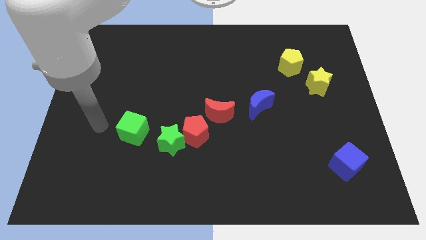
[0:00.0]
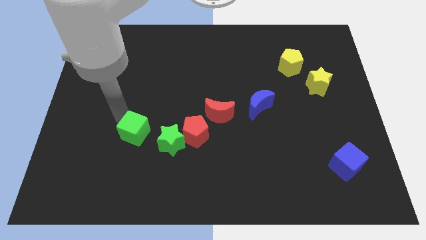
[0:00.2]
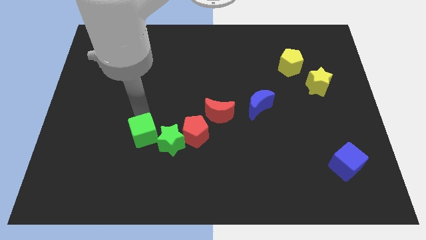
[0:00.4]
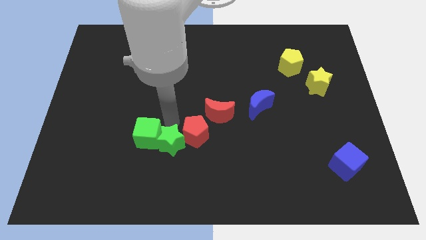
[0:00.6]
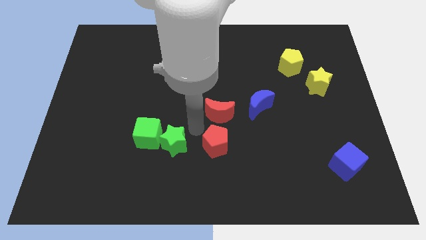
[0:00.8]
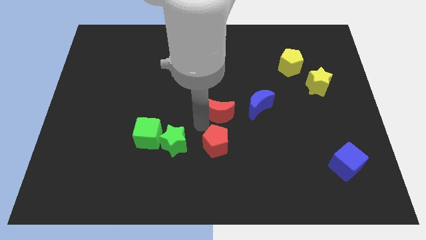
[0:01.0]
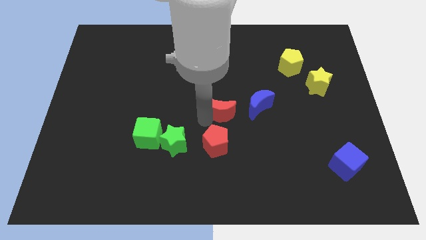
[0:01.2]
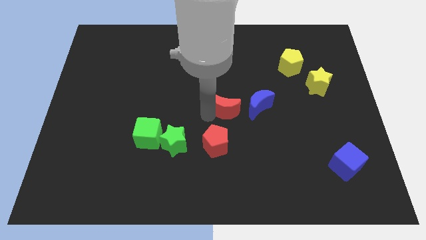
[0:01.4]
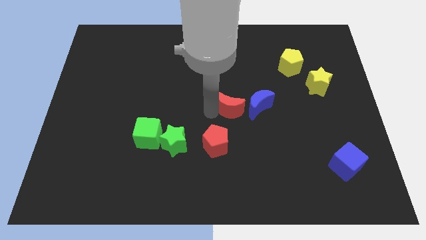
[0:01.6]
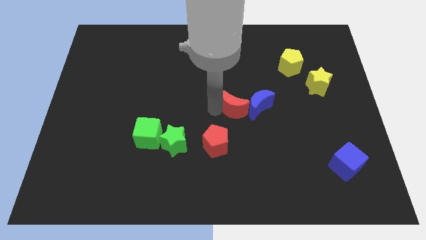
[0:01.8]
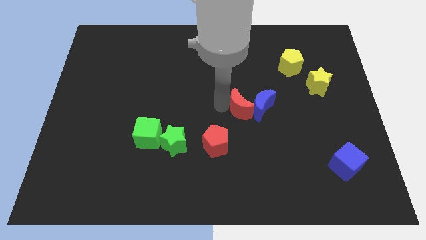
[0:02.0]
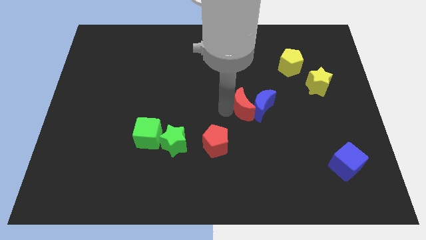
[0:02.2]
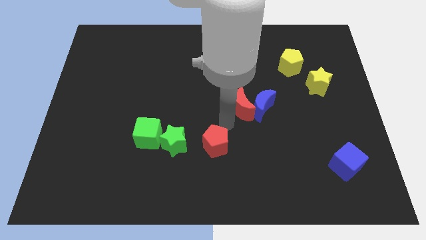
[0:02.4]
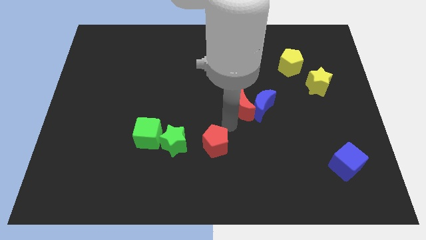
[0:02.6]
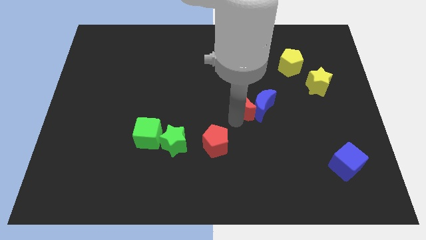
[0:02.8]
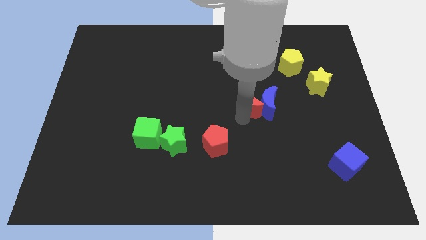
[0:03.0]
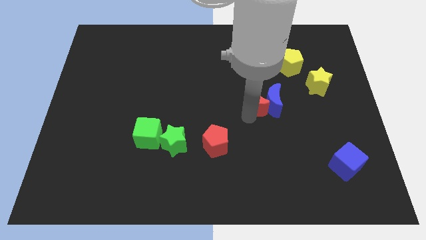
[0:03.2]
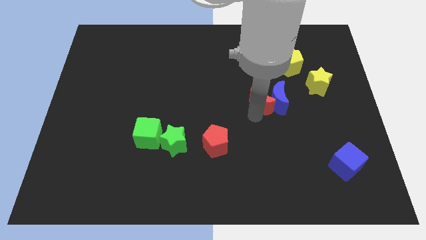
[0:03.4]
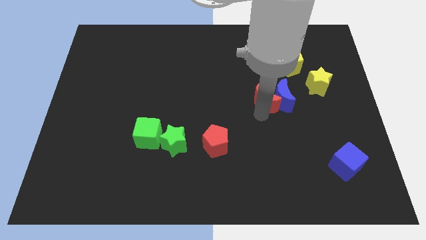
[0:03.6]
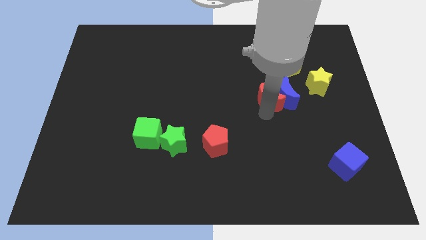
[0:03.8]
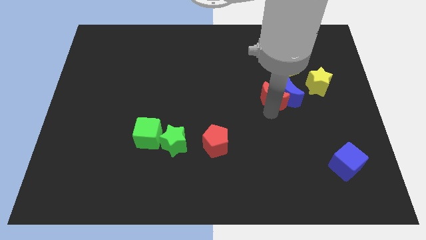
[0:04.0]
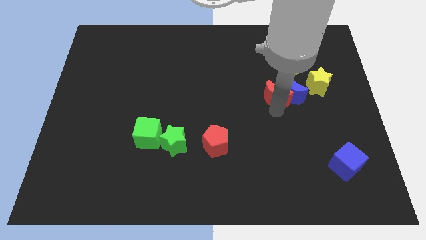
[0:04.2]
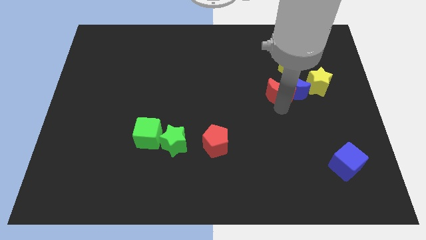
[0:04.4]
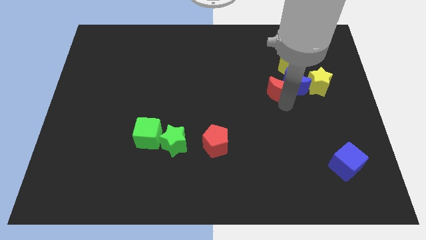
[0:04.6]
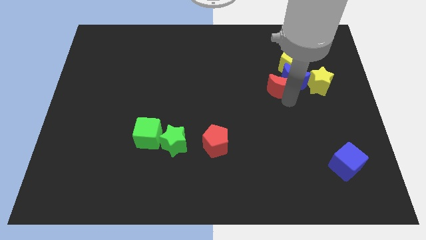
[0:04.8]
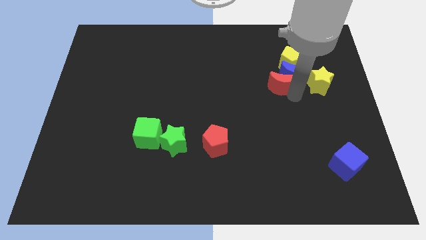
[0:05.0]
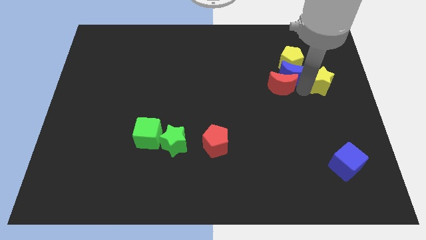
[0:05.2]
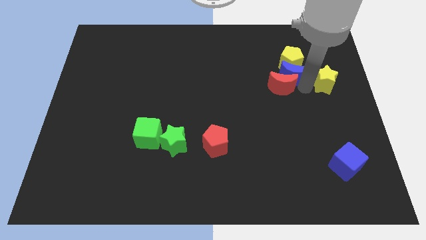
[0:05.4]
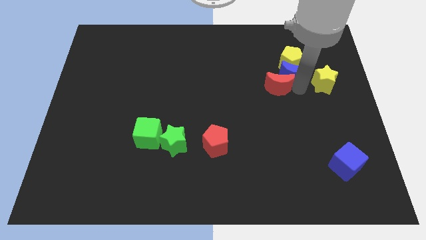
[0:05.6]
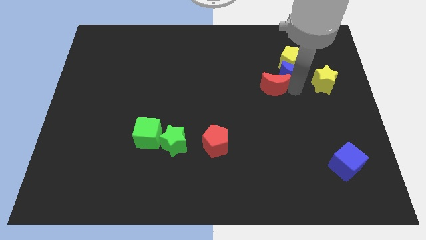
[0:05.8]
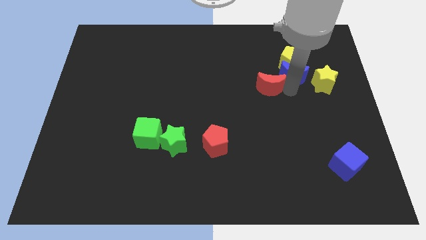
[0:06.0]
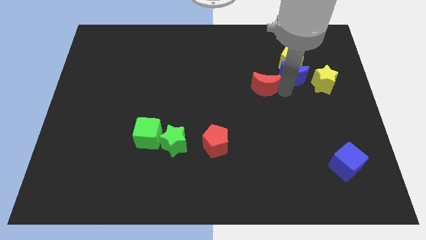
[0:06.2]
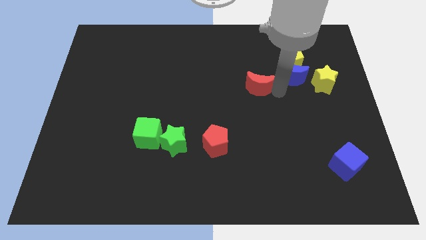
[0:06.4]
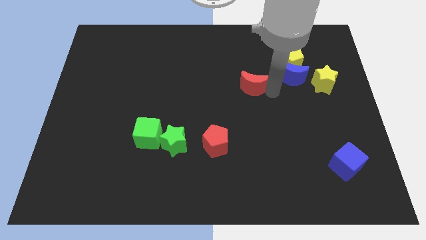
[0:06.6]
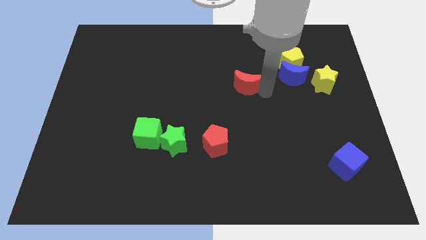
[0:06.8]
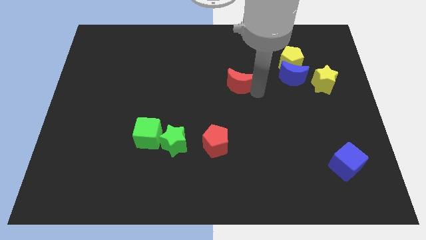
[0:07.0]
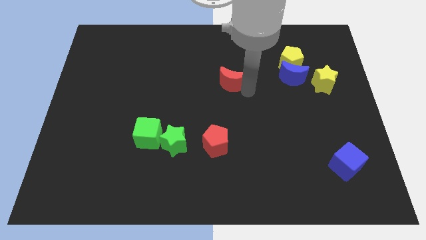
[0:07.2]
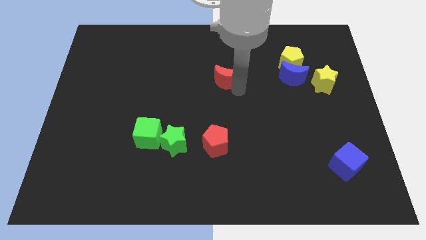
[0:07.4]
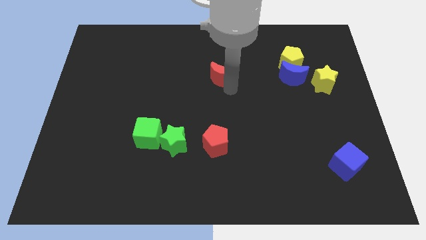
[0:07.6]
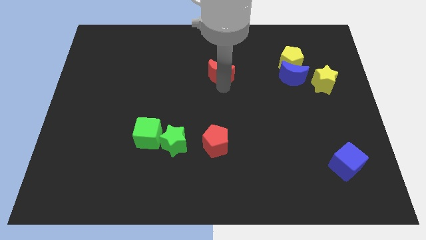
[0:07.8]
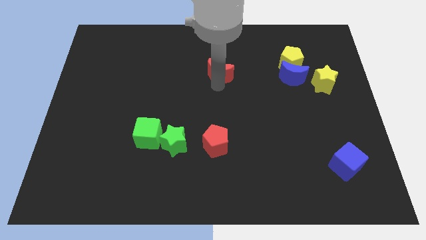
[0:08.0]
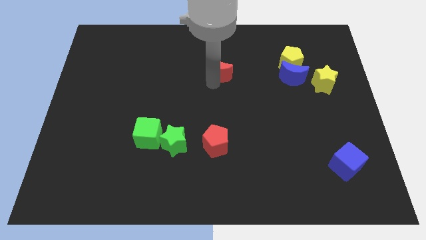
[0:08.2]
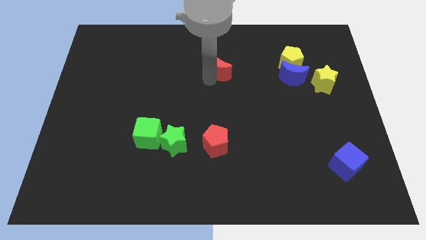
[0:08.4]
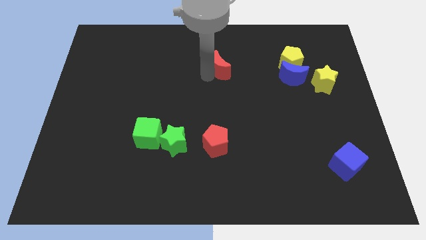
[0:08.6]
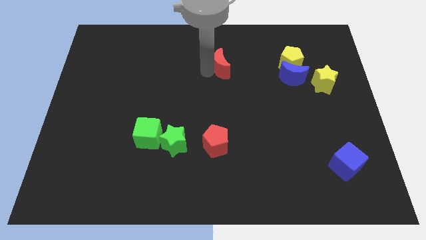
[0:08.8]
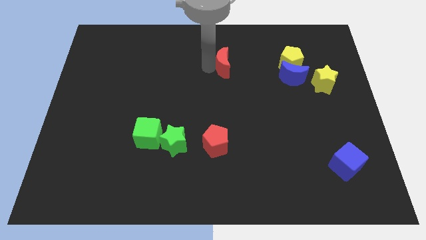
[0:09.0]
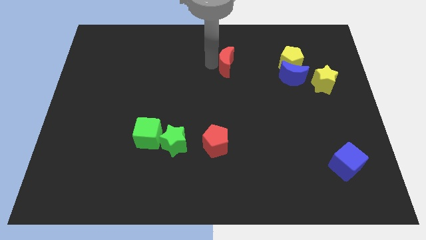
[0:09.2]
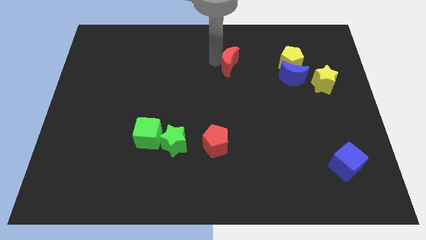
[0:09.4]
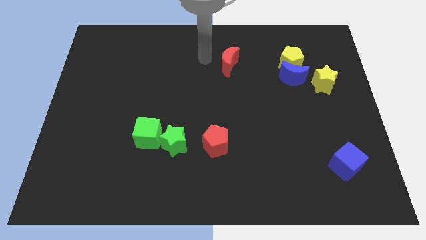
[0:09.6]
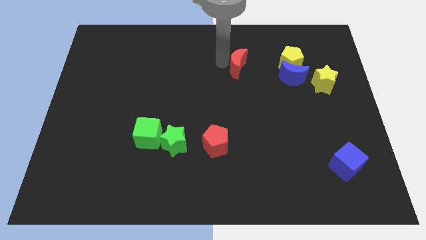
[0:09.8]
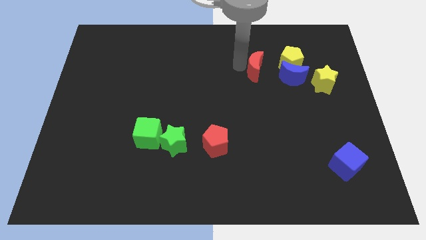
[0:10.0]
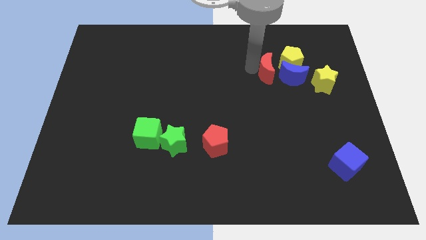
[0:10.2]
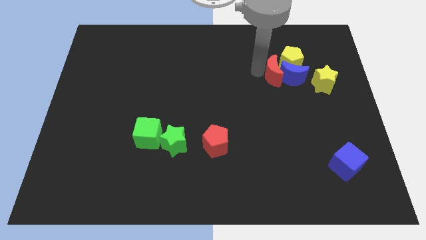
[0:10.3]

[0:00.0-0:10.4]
put the red moon next to the yellow pentagon

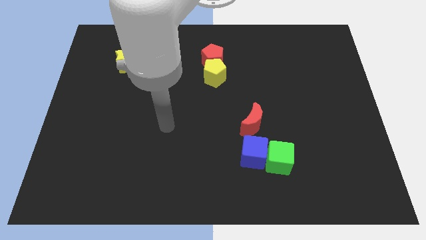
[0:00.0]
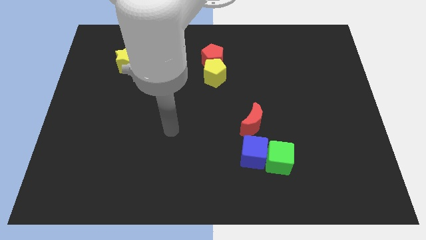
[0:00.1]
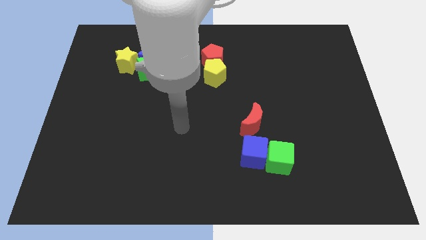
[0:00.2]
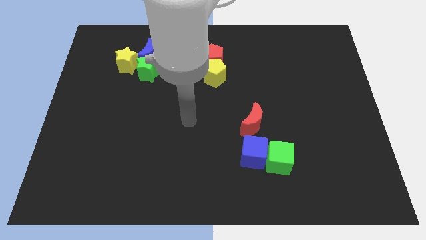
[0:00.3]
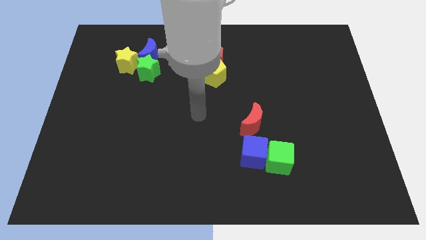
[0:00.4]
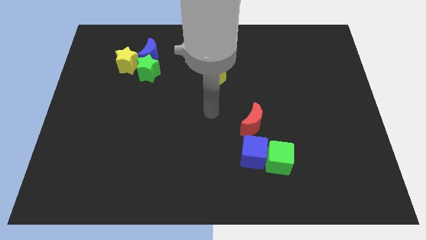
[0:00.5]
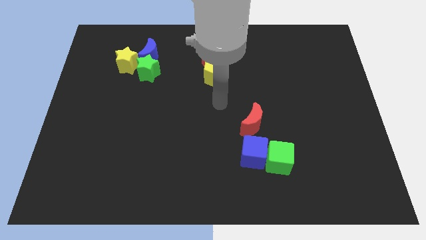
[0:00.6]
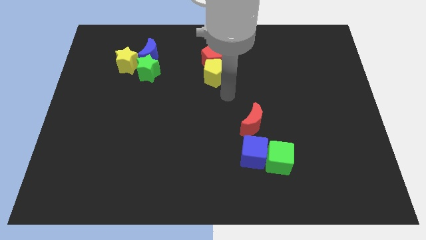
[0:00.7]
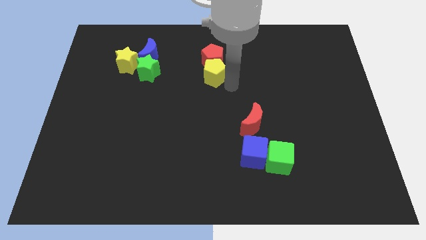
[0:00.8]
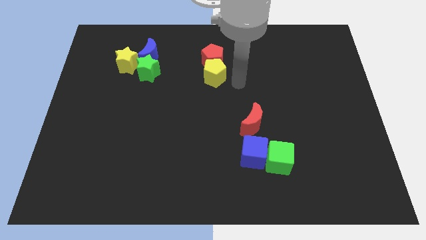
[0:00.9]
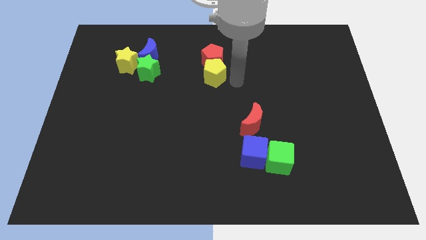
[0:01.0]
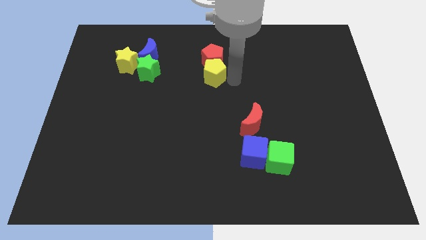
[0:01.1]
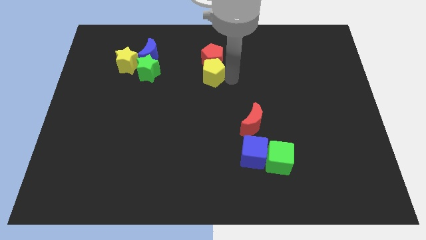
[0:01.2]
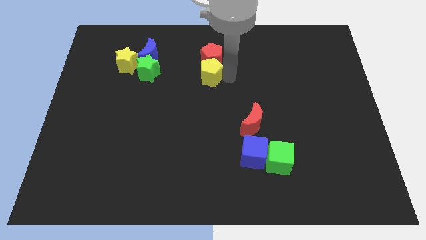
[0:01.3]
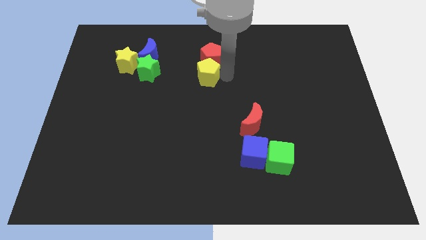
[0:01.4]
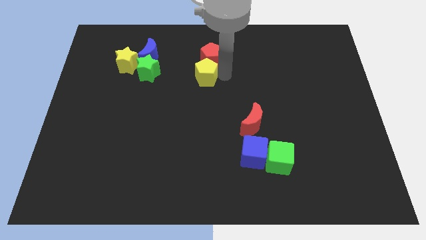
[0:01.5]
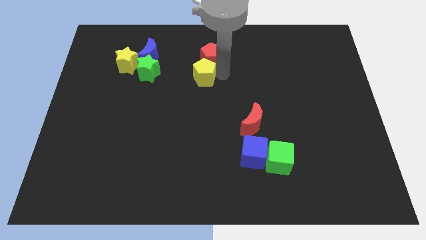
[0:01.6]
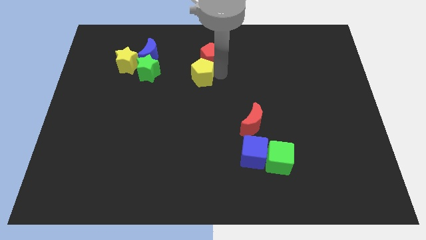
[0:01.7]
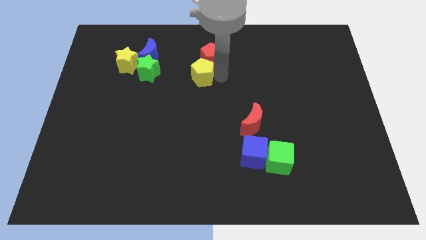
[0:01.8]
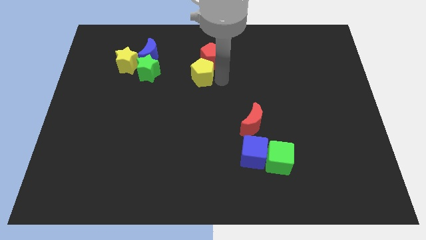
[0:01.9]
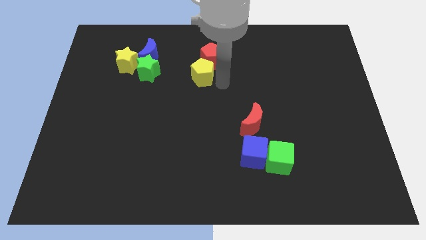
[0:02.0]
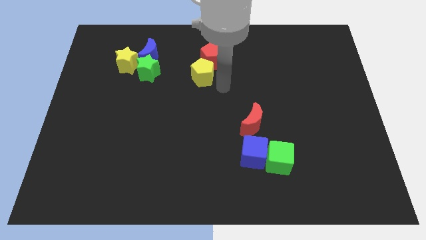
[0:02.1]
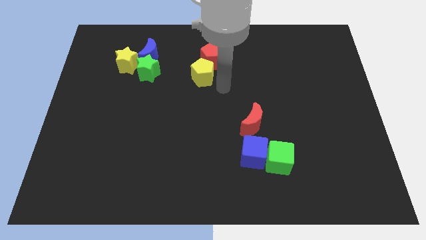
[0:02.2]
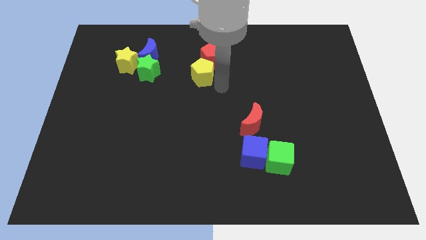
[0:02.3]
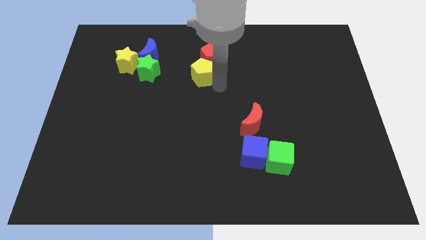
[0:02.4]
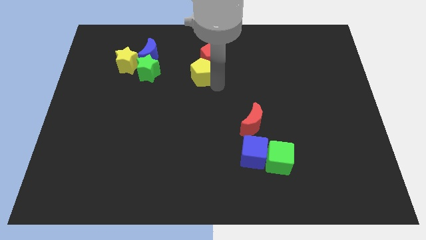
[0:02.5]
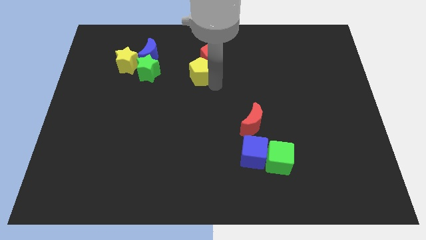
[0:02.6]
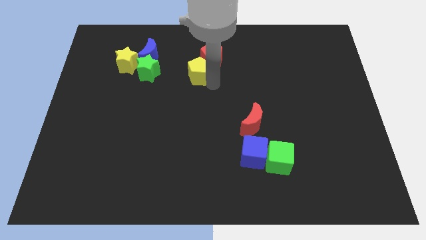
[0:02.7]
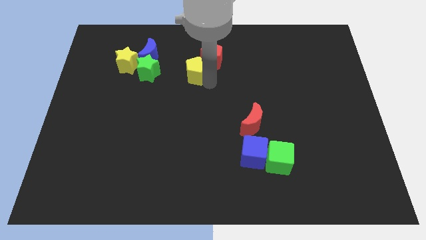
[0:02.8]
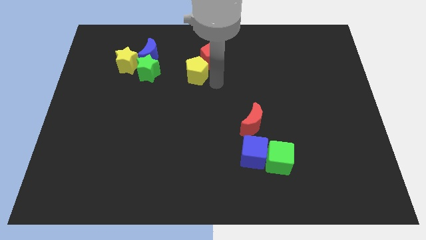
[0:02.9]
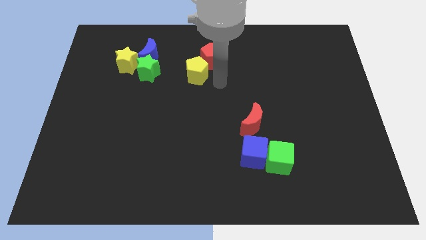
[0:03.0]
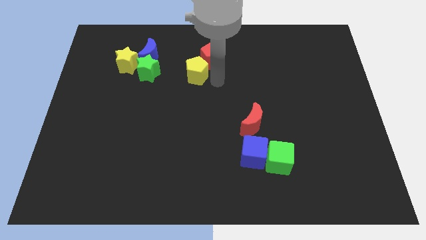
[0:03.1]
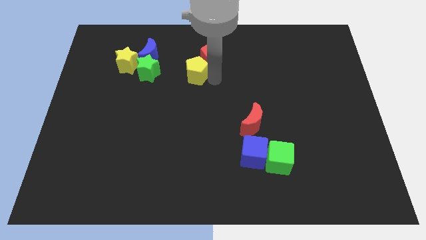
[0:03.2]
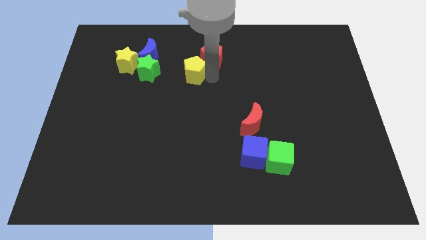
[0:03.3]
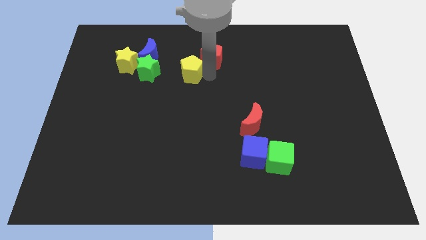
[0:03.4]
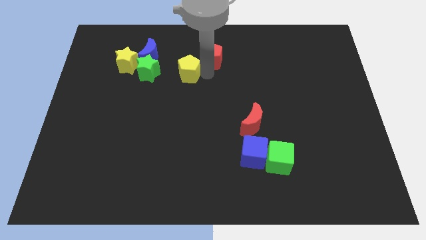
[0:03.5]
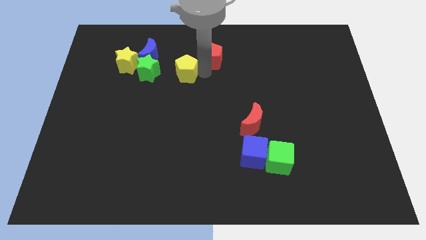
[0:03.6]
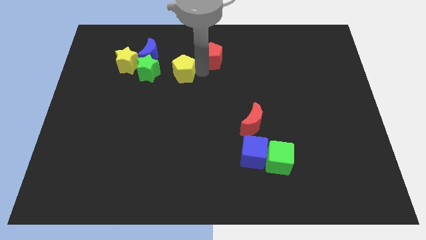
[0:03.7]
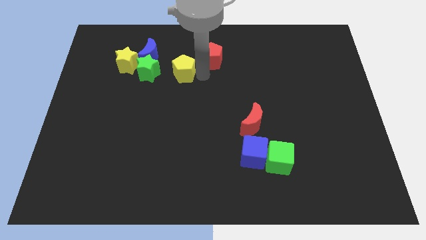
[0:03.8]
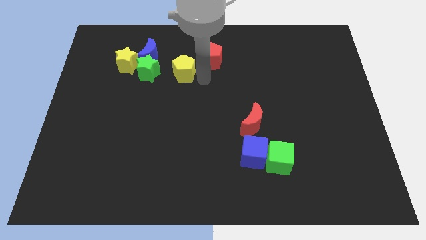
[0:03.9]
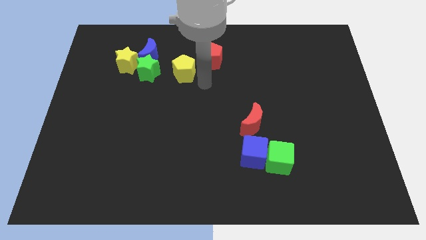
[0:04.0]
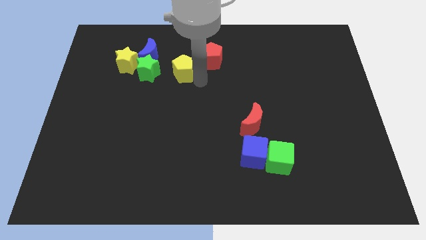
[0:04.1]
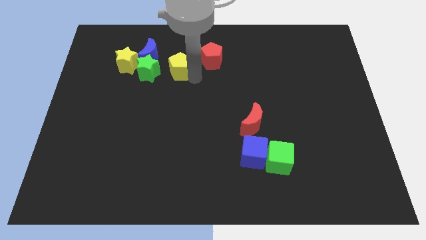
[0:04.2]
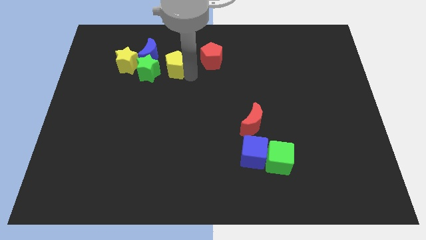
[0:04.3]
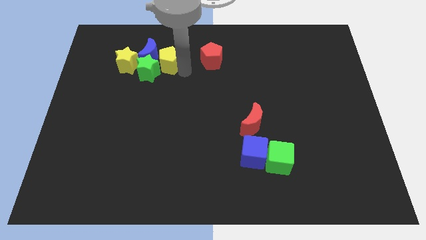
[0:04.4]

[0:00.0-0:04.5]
move the yellow pentagon towards the blue moon
